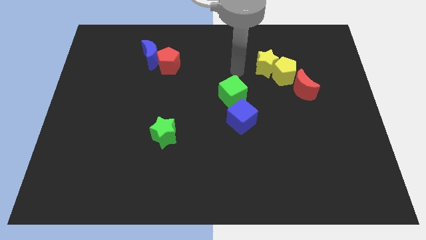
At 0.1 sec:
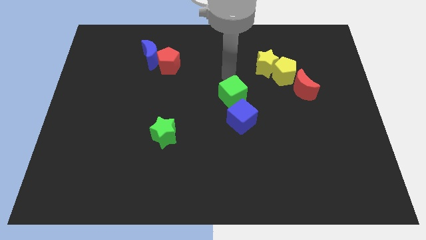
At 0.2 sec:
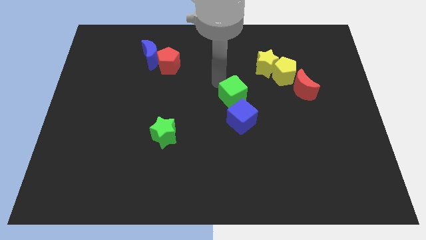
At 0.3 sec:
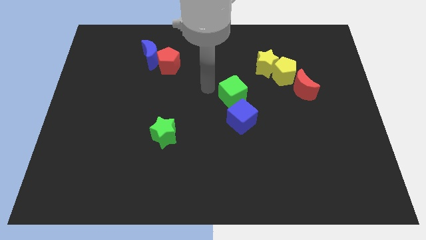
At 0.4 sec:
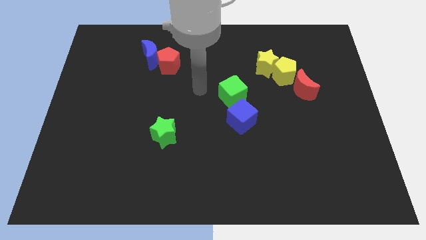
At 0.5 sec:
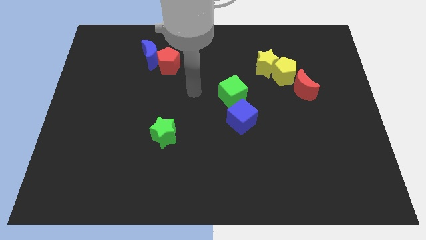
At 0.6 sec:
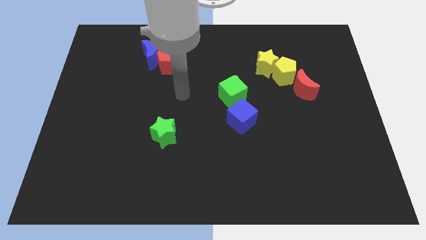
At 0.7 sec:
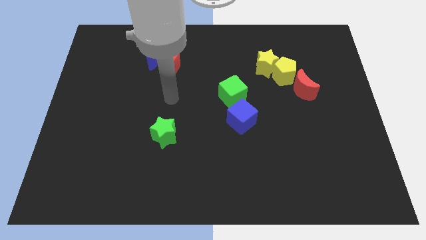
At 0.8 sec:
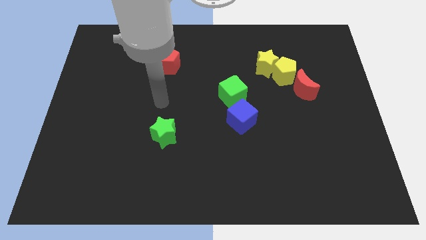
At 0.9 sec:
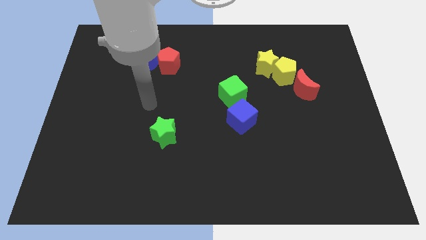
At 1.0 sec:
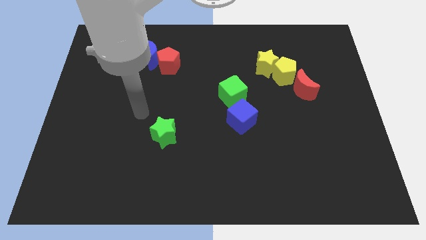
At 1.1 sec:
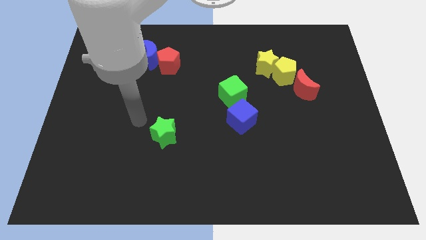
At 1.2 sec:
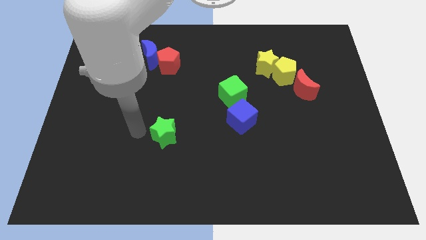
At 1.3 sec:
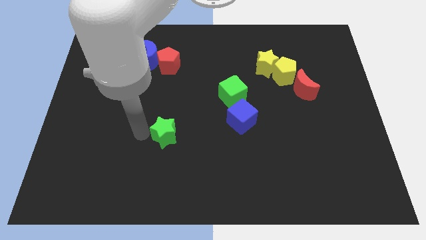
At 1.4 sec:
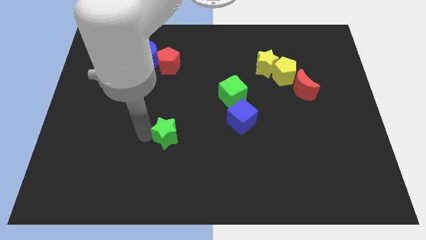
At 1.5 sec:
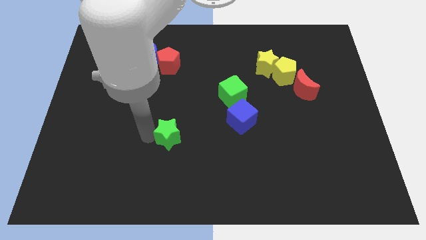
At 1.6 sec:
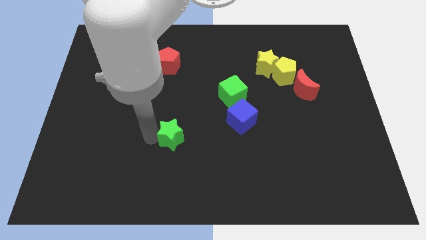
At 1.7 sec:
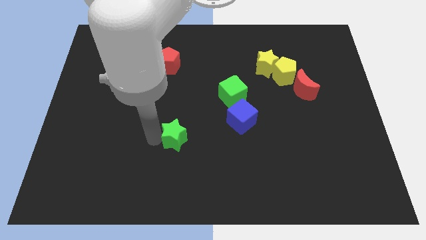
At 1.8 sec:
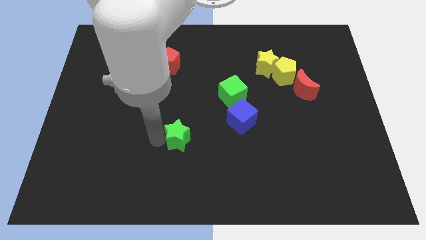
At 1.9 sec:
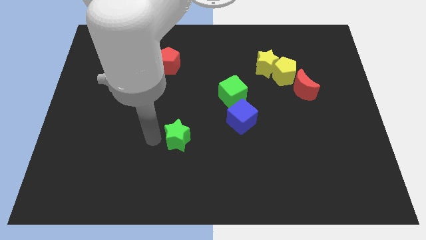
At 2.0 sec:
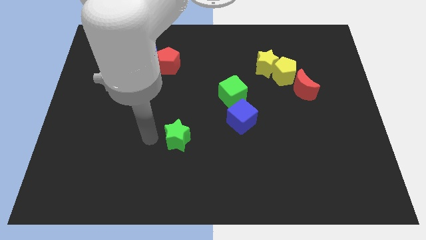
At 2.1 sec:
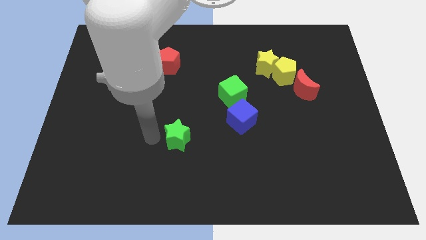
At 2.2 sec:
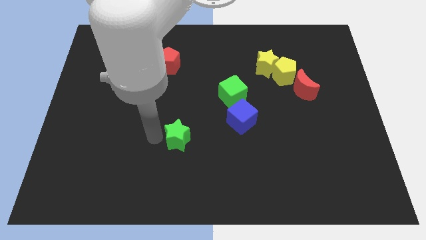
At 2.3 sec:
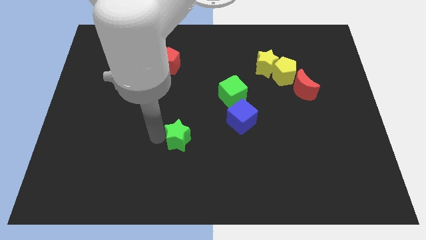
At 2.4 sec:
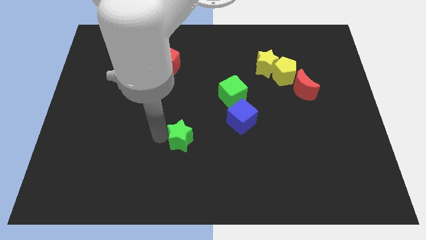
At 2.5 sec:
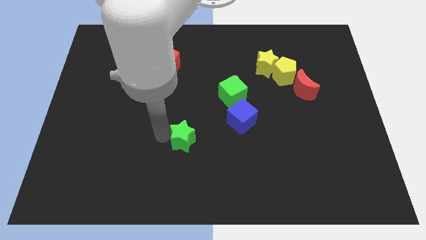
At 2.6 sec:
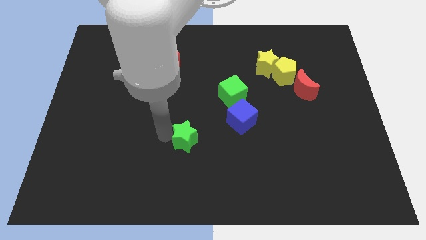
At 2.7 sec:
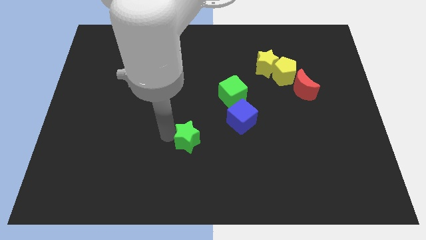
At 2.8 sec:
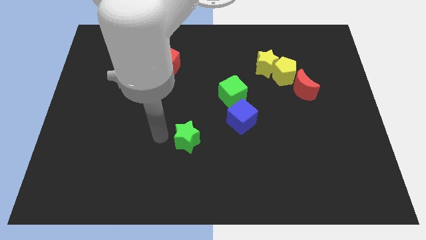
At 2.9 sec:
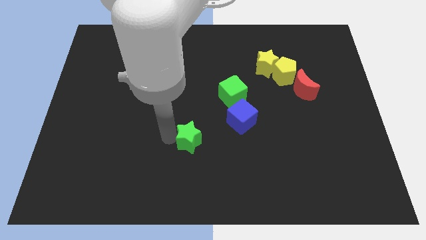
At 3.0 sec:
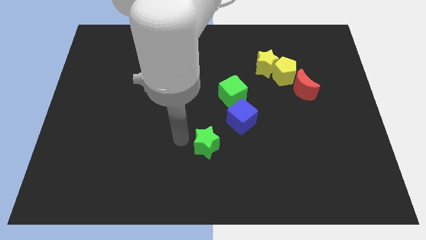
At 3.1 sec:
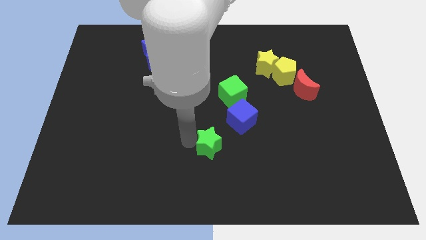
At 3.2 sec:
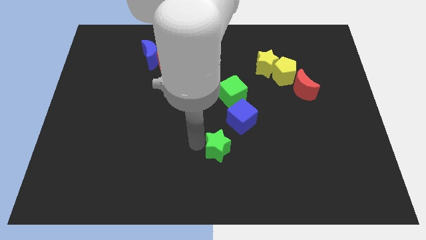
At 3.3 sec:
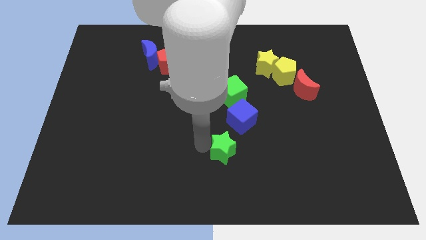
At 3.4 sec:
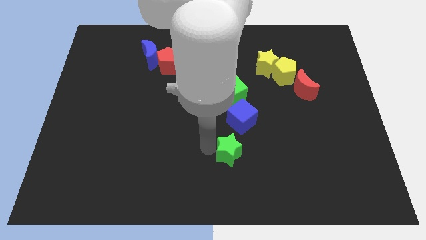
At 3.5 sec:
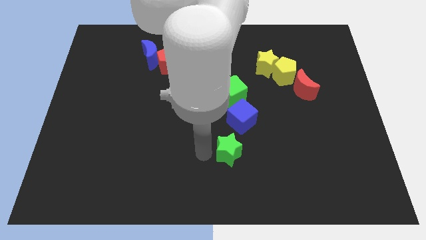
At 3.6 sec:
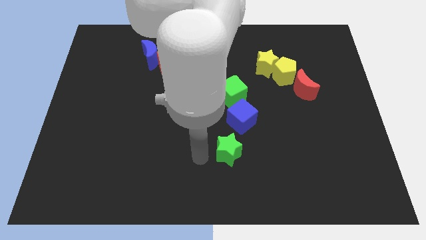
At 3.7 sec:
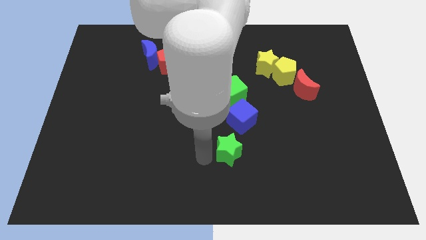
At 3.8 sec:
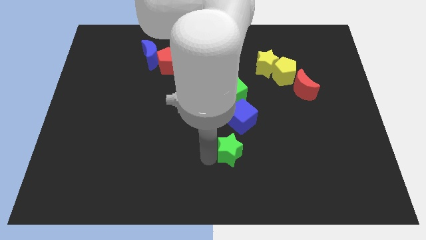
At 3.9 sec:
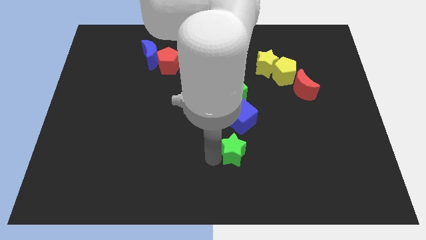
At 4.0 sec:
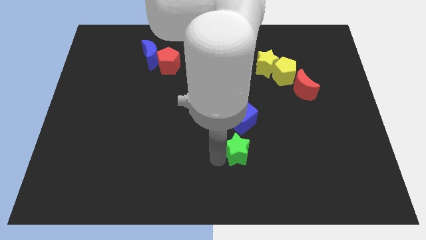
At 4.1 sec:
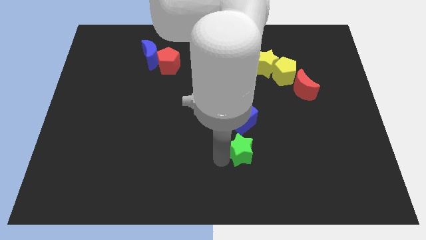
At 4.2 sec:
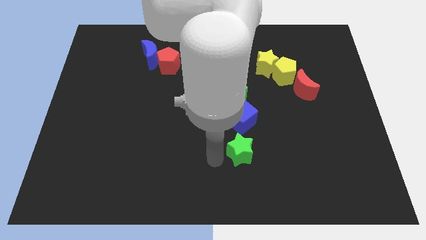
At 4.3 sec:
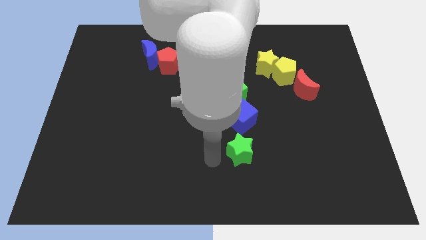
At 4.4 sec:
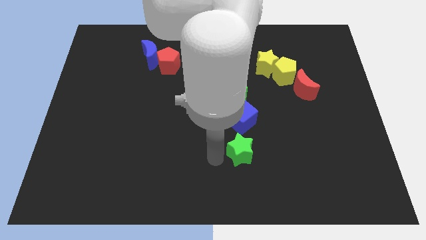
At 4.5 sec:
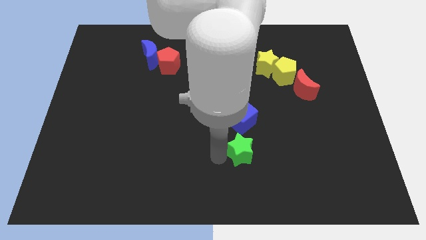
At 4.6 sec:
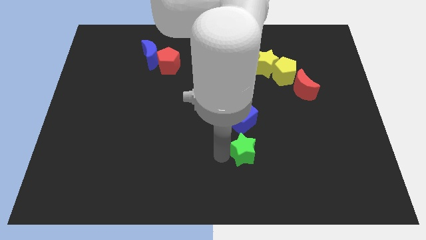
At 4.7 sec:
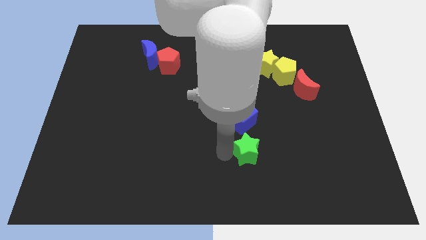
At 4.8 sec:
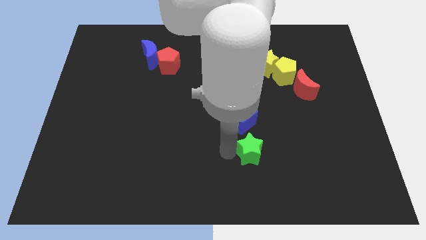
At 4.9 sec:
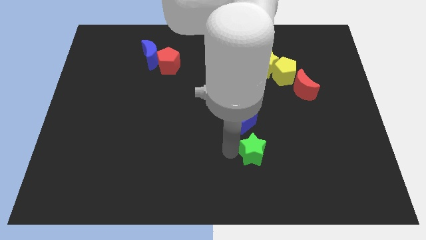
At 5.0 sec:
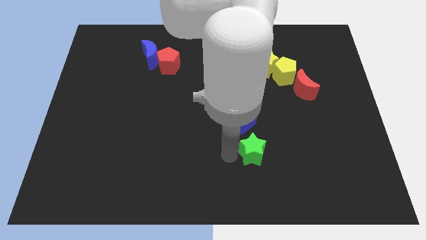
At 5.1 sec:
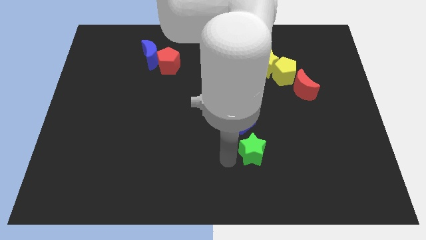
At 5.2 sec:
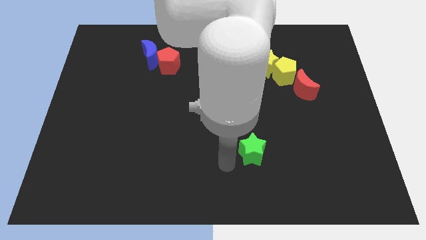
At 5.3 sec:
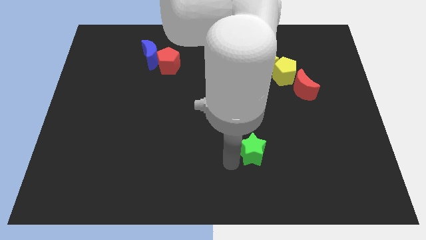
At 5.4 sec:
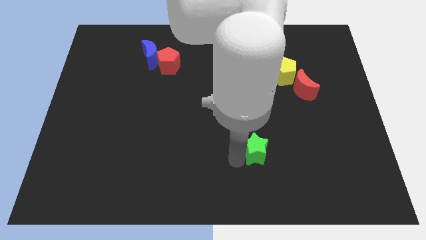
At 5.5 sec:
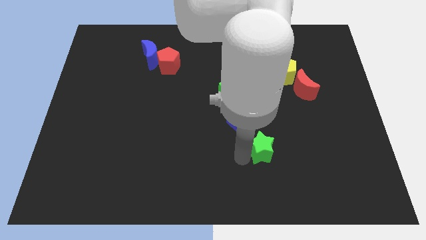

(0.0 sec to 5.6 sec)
slide the green star right

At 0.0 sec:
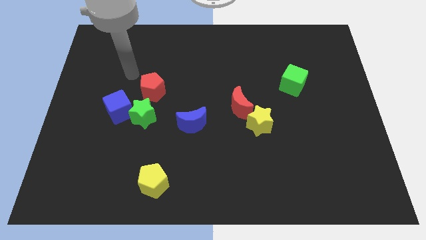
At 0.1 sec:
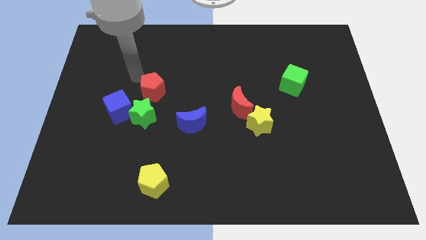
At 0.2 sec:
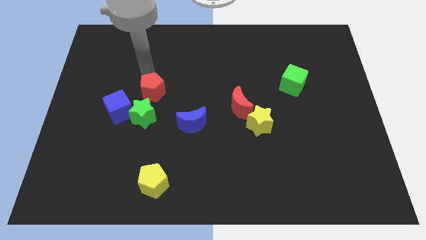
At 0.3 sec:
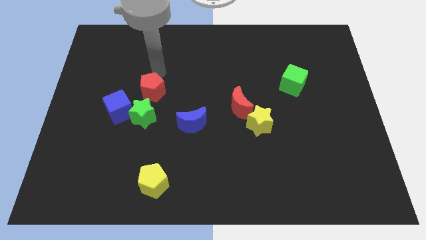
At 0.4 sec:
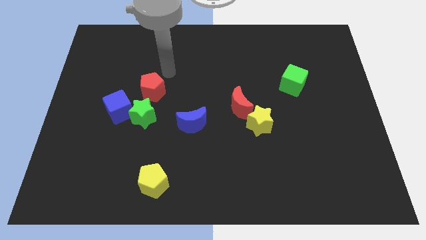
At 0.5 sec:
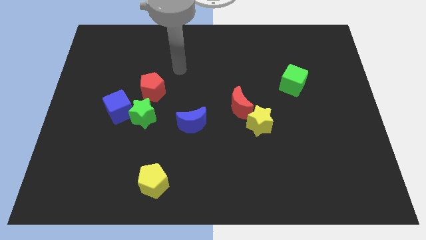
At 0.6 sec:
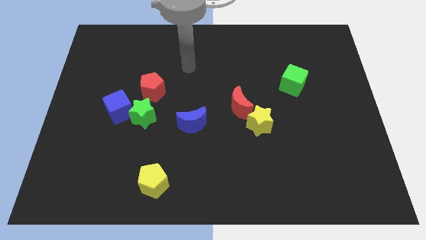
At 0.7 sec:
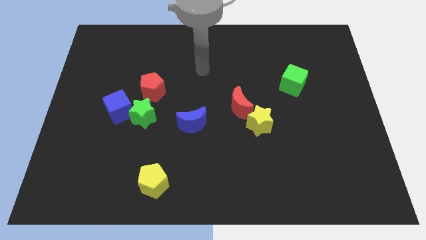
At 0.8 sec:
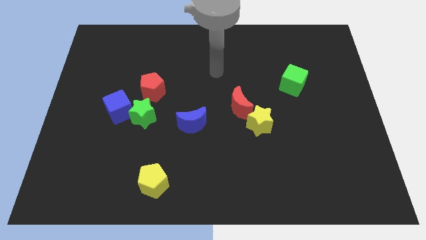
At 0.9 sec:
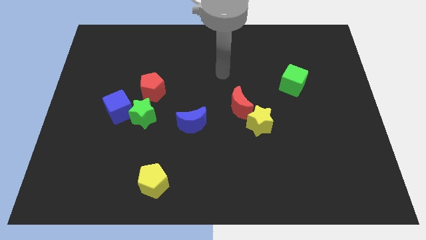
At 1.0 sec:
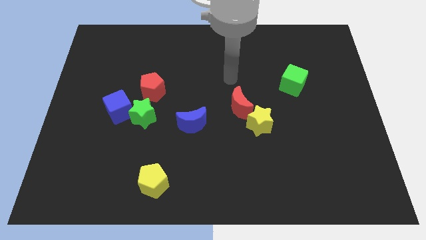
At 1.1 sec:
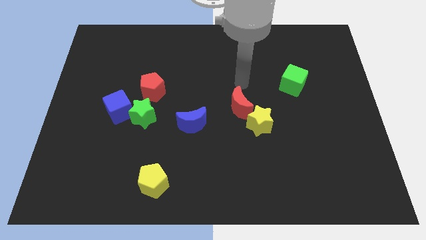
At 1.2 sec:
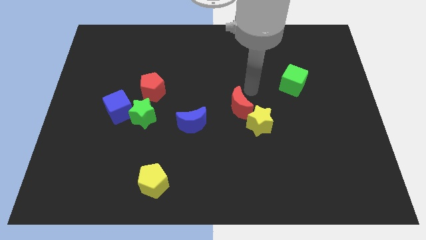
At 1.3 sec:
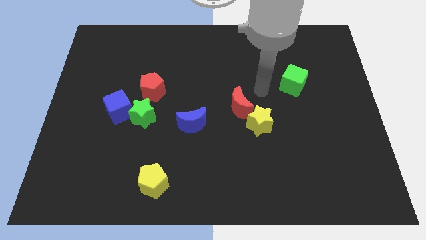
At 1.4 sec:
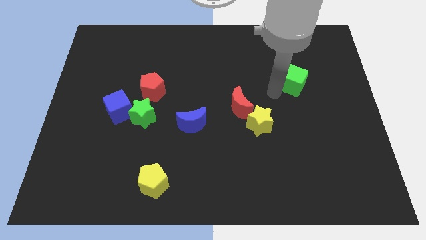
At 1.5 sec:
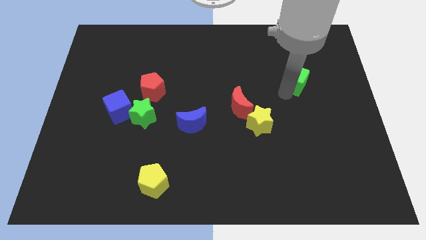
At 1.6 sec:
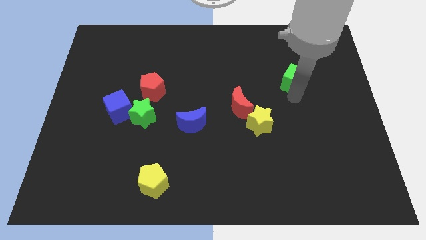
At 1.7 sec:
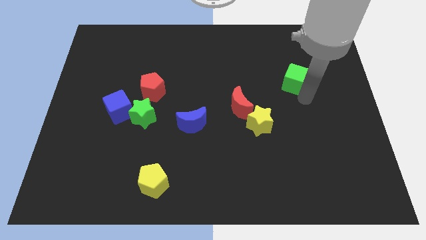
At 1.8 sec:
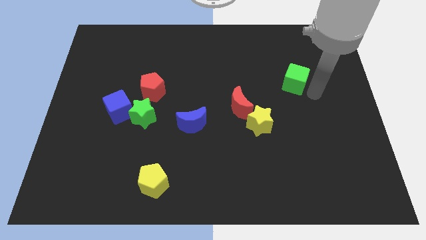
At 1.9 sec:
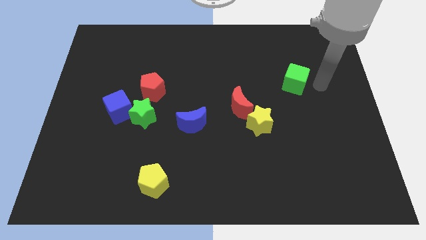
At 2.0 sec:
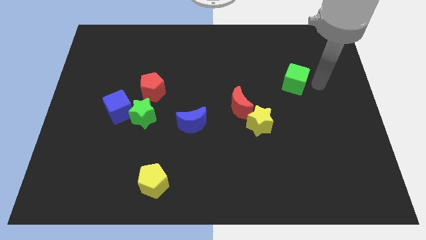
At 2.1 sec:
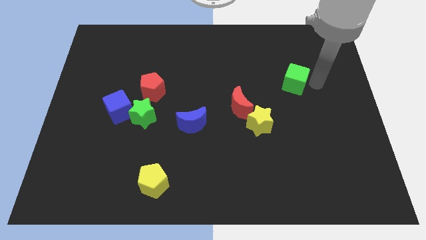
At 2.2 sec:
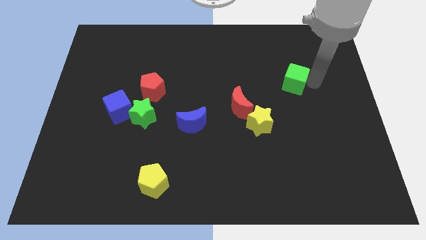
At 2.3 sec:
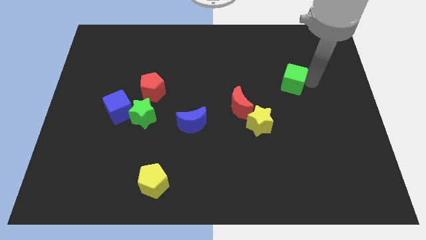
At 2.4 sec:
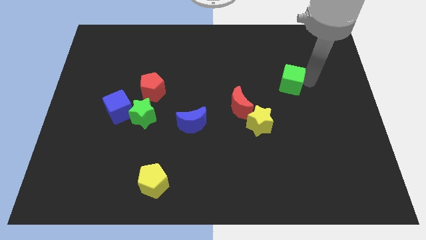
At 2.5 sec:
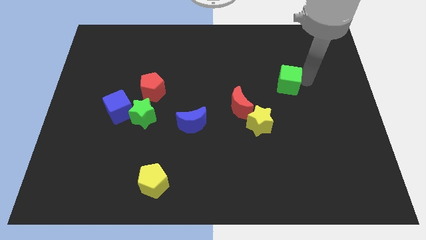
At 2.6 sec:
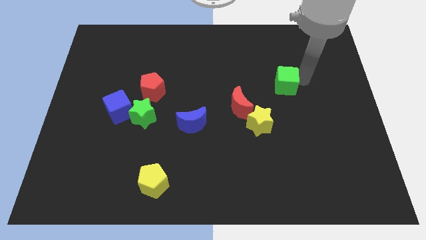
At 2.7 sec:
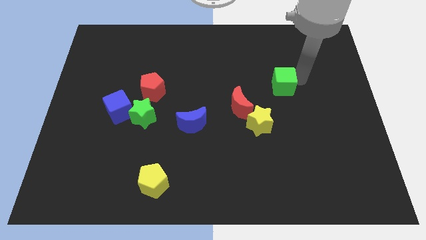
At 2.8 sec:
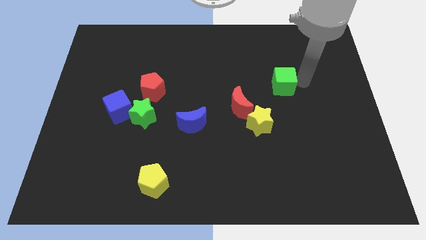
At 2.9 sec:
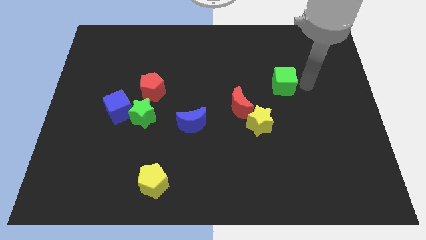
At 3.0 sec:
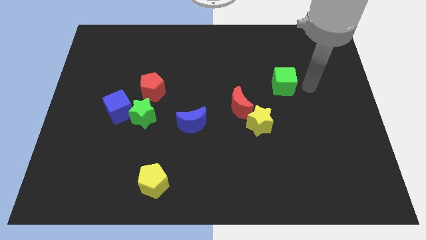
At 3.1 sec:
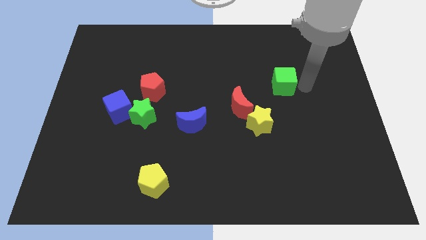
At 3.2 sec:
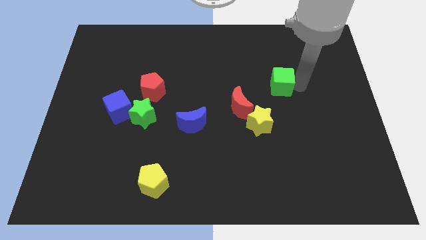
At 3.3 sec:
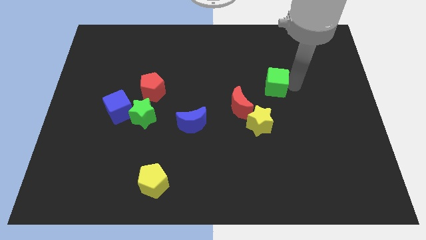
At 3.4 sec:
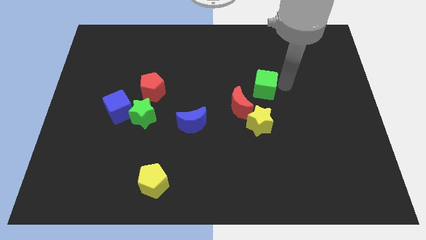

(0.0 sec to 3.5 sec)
slightly slide the green cube left
